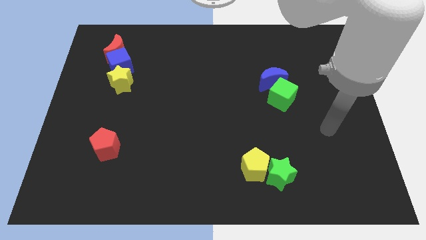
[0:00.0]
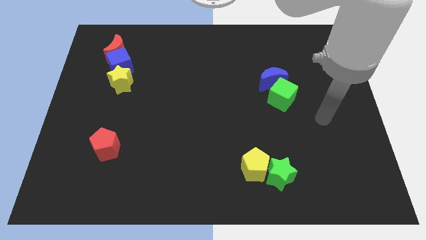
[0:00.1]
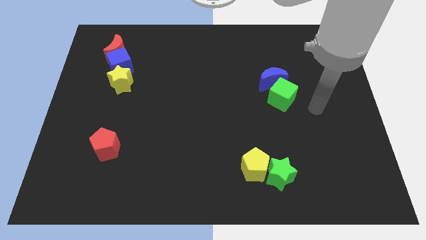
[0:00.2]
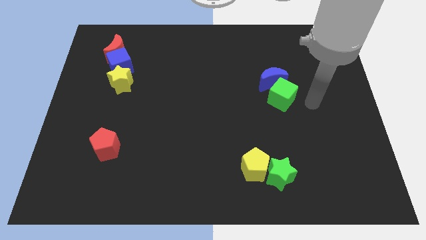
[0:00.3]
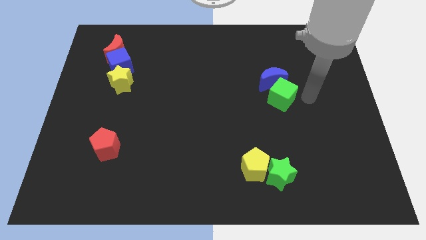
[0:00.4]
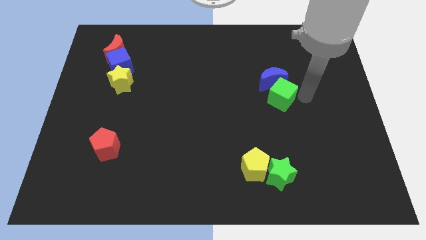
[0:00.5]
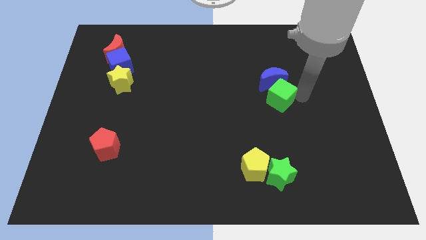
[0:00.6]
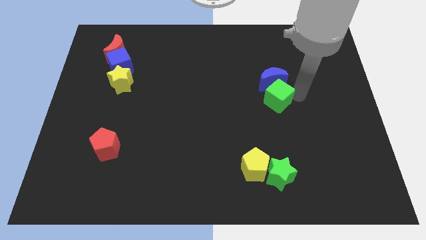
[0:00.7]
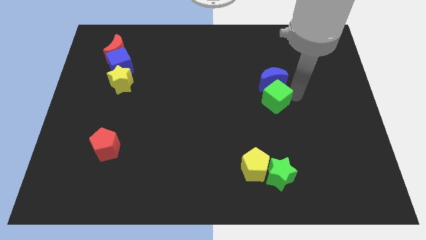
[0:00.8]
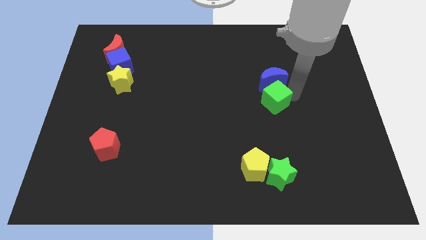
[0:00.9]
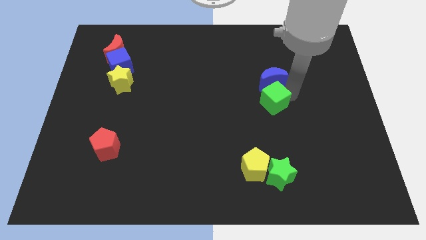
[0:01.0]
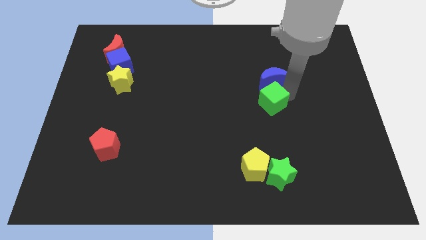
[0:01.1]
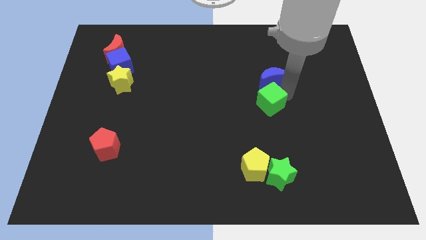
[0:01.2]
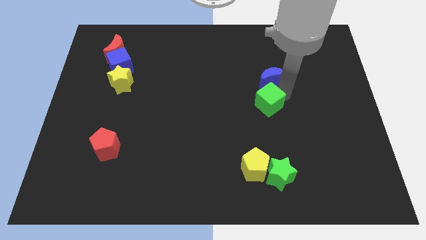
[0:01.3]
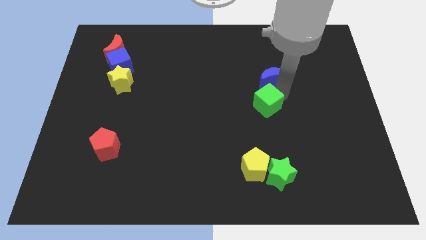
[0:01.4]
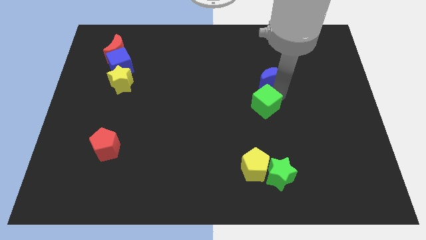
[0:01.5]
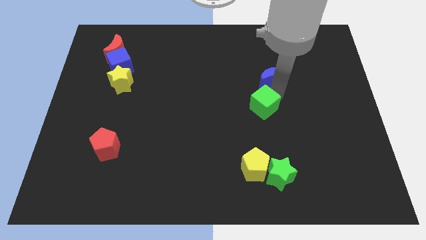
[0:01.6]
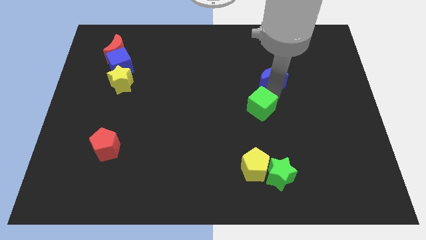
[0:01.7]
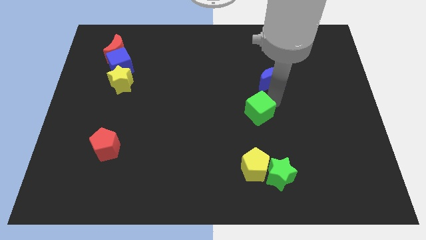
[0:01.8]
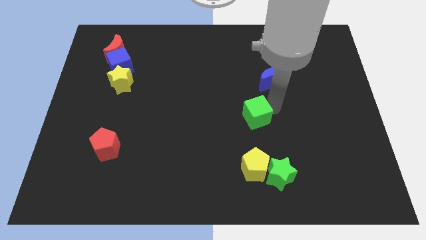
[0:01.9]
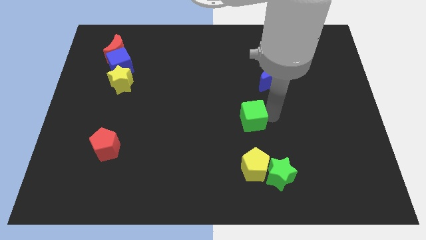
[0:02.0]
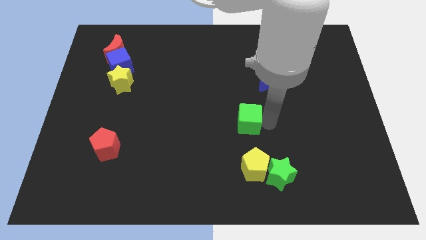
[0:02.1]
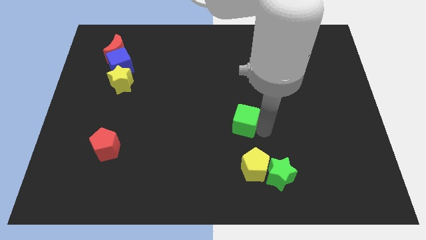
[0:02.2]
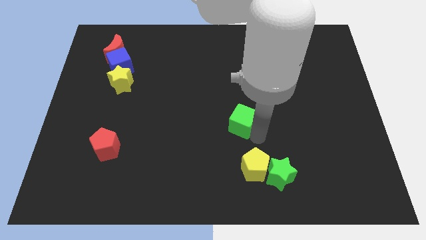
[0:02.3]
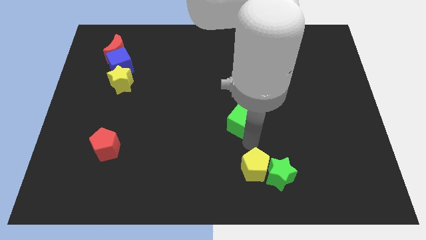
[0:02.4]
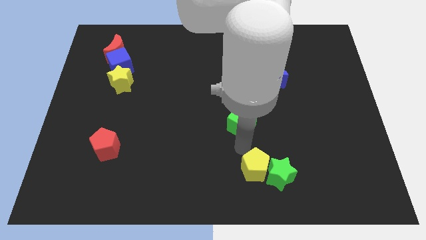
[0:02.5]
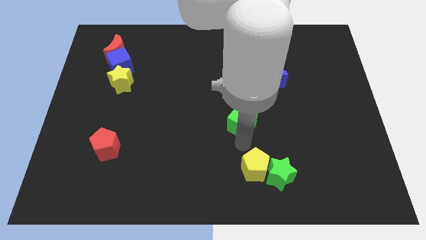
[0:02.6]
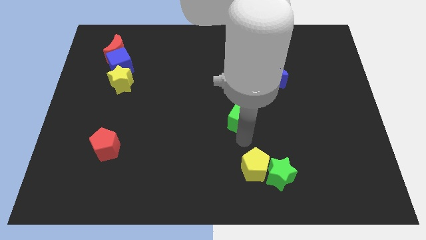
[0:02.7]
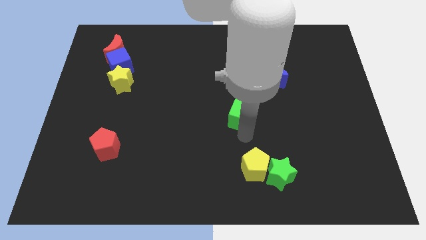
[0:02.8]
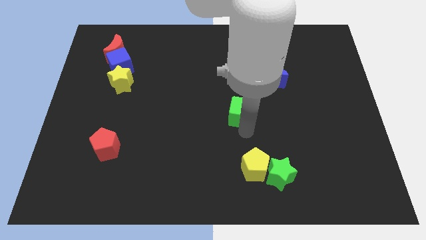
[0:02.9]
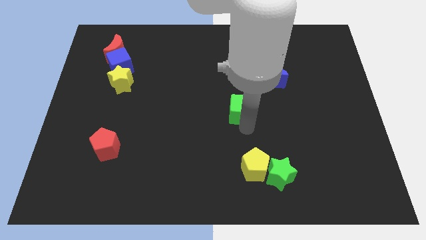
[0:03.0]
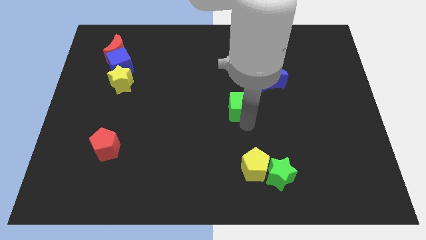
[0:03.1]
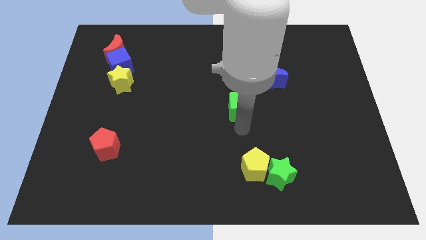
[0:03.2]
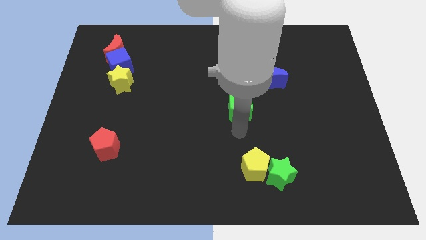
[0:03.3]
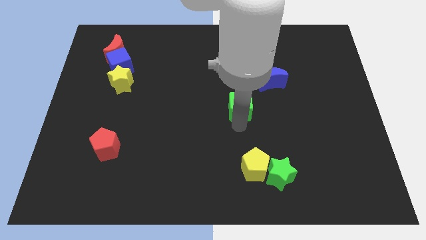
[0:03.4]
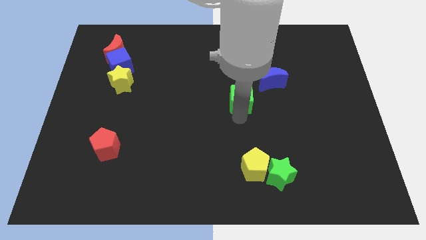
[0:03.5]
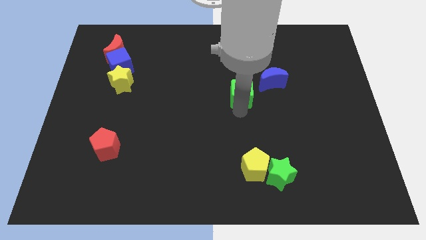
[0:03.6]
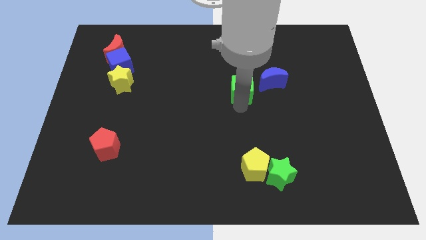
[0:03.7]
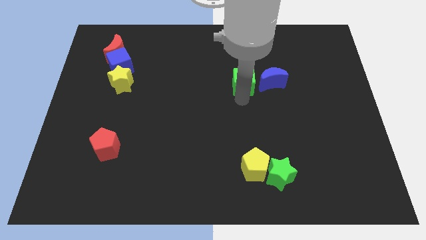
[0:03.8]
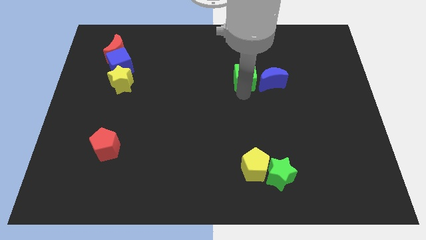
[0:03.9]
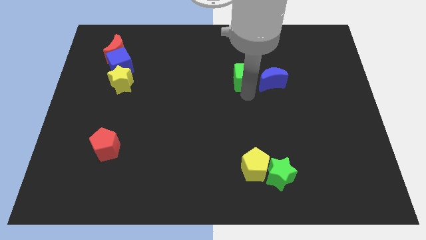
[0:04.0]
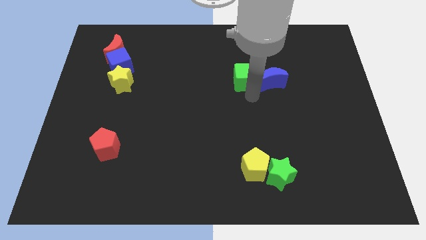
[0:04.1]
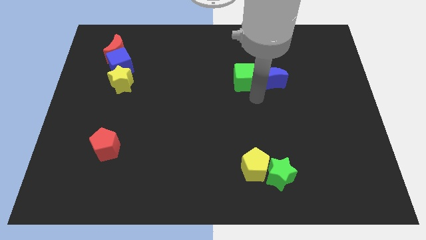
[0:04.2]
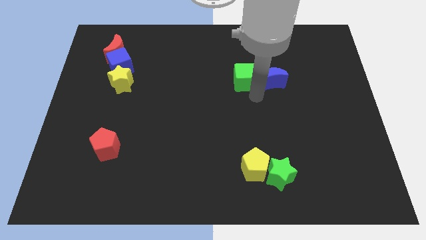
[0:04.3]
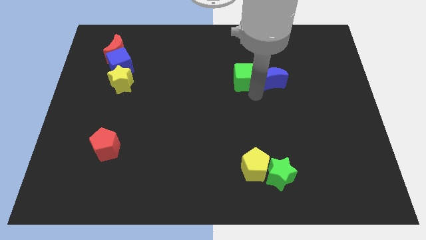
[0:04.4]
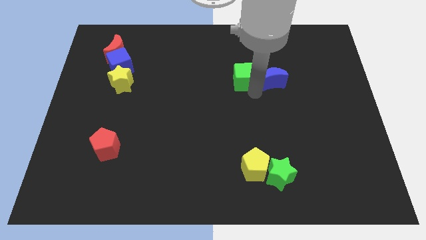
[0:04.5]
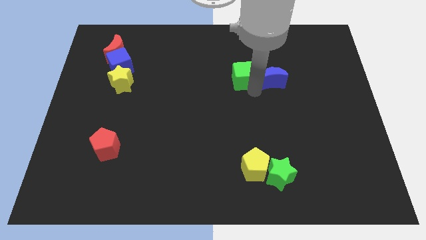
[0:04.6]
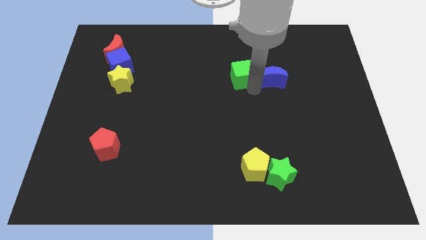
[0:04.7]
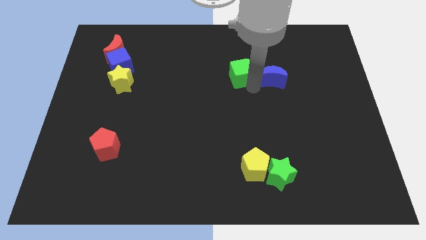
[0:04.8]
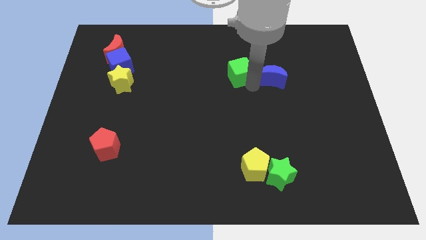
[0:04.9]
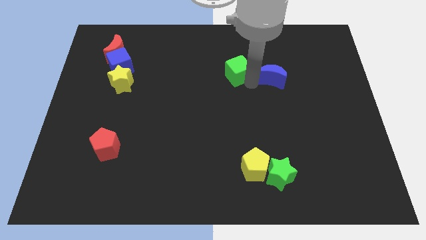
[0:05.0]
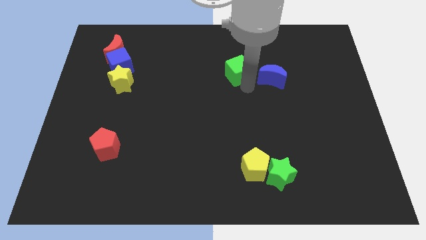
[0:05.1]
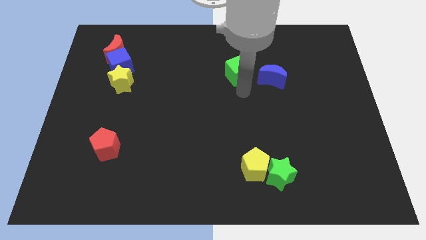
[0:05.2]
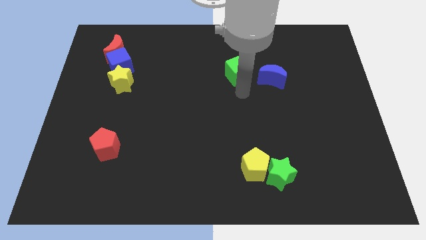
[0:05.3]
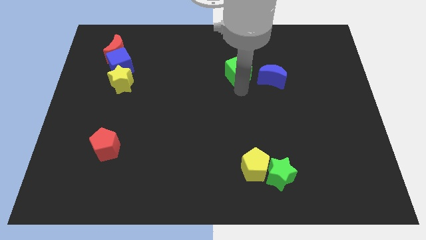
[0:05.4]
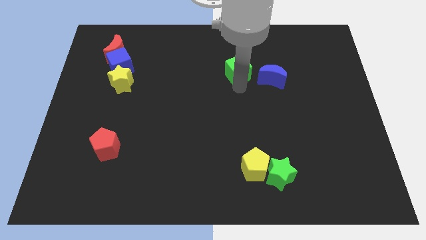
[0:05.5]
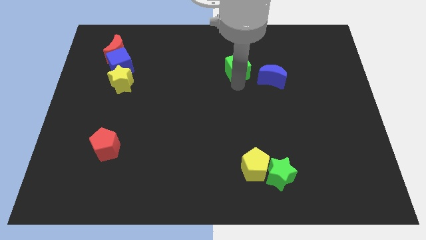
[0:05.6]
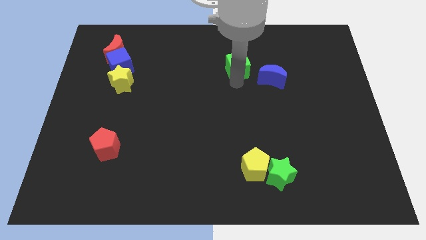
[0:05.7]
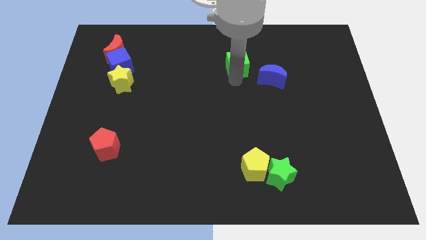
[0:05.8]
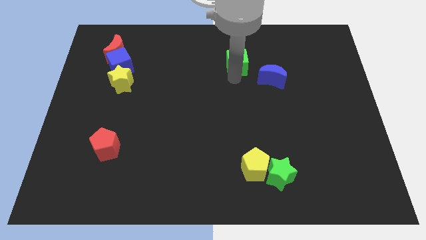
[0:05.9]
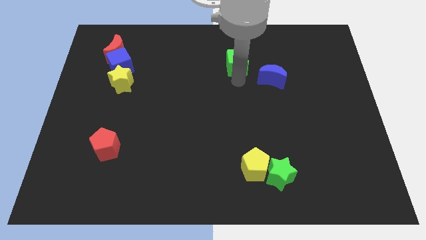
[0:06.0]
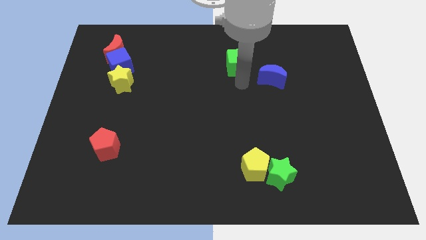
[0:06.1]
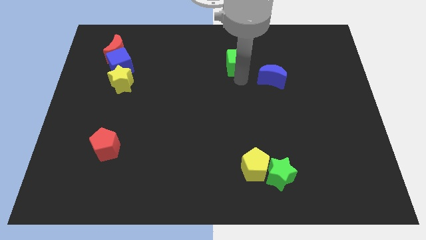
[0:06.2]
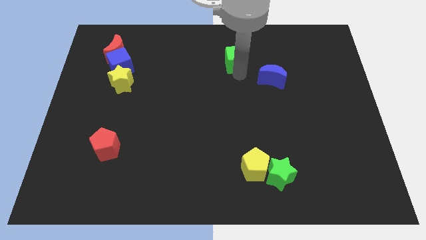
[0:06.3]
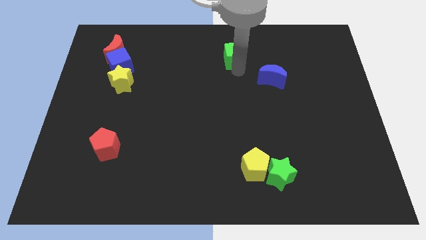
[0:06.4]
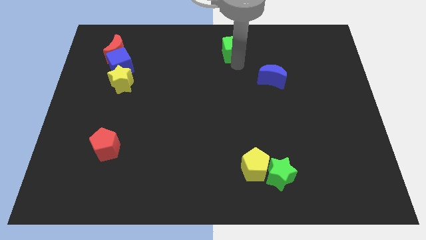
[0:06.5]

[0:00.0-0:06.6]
put the green cube to the top side
